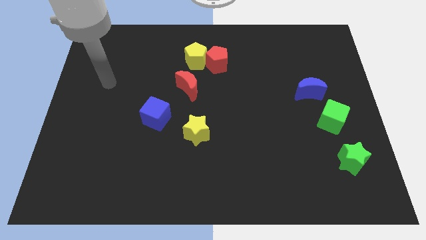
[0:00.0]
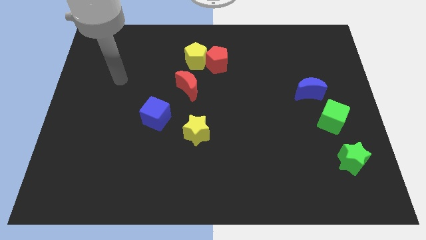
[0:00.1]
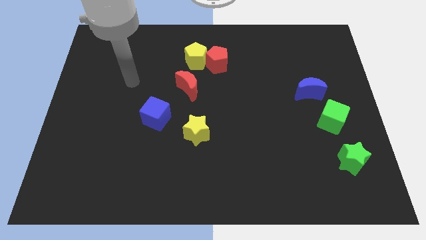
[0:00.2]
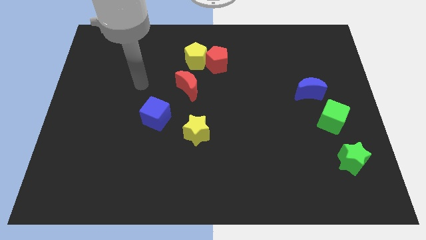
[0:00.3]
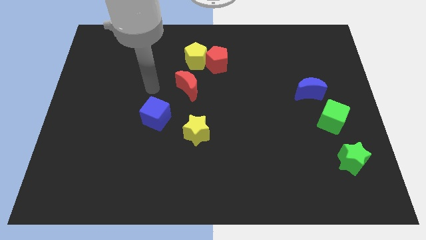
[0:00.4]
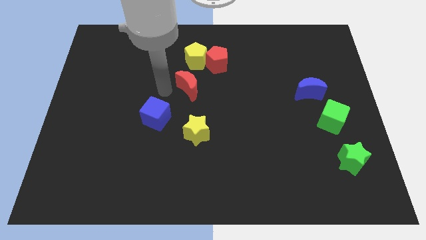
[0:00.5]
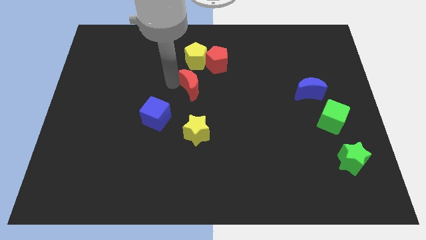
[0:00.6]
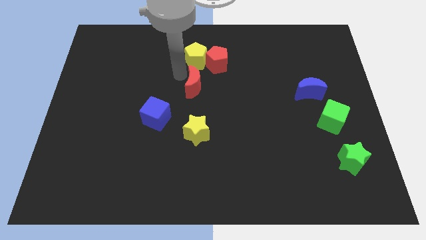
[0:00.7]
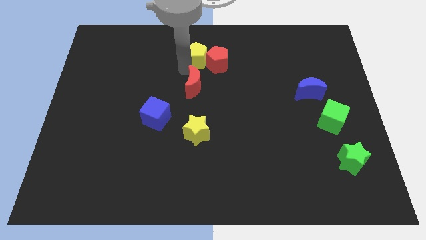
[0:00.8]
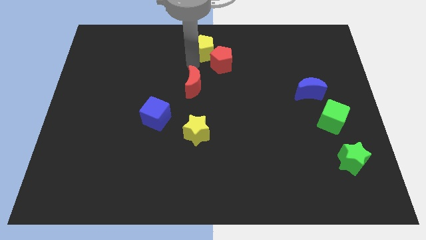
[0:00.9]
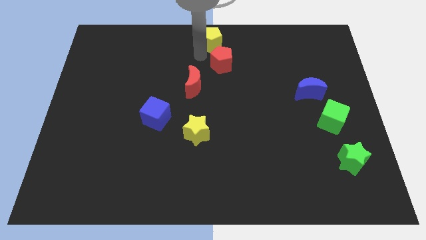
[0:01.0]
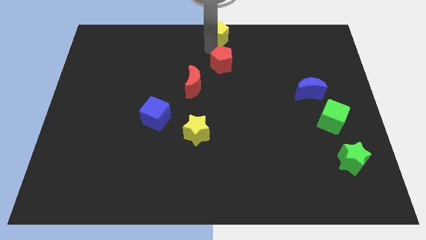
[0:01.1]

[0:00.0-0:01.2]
separate the red pentagon from the yellow pentagon

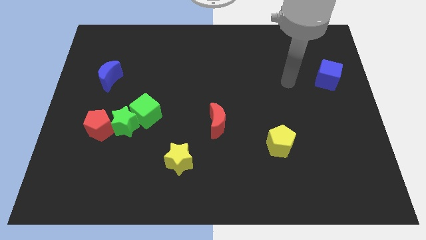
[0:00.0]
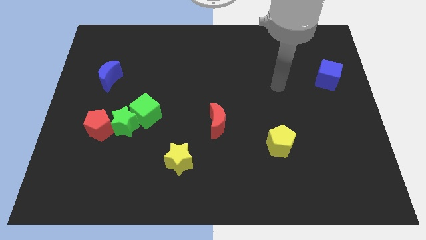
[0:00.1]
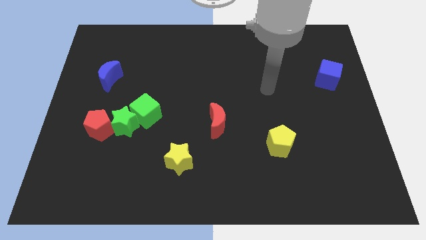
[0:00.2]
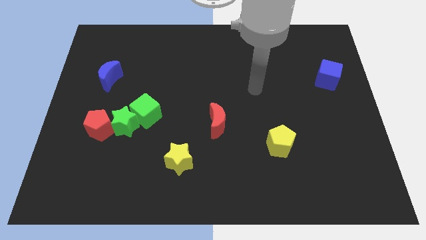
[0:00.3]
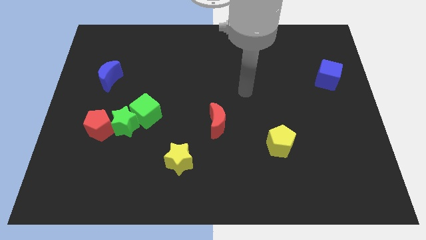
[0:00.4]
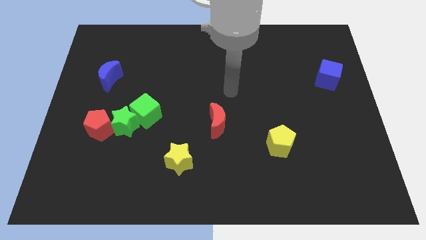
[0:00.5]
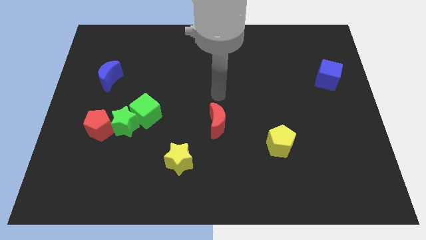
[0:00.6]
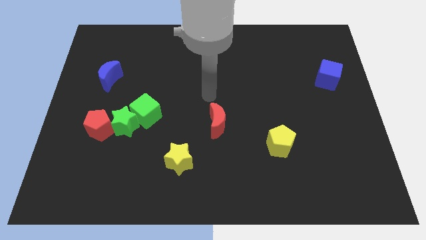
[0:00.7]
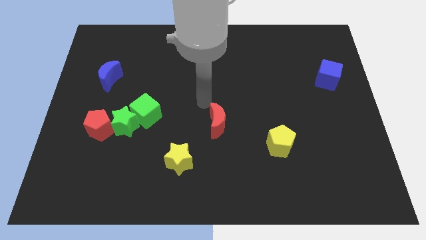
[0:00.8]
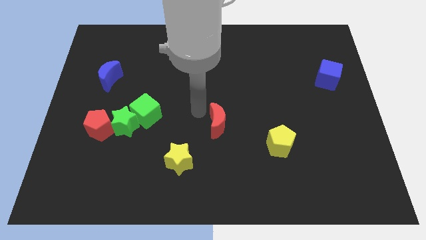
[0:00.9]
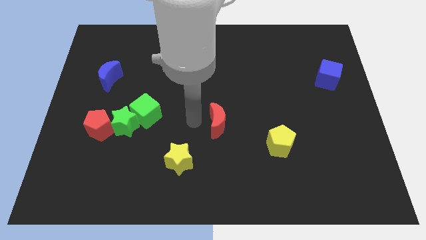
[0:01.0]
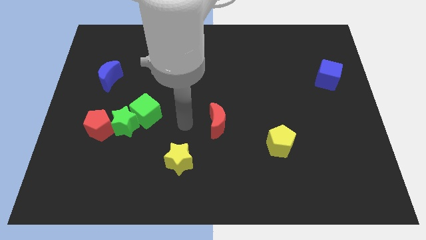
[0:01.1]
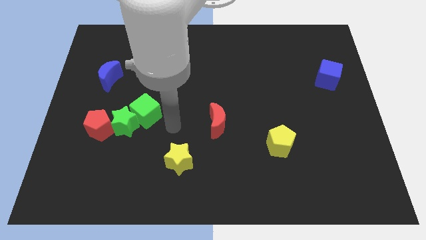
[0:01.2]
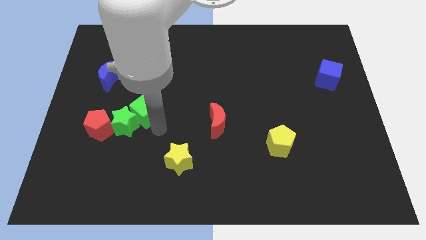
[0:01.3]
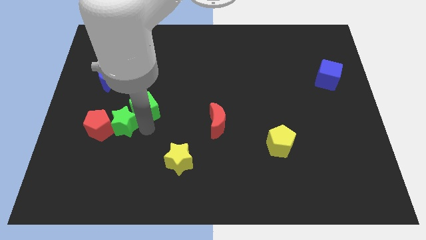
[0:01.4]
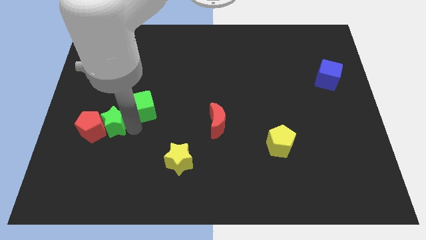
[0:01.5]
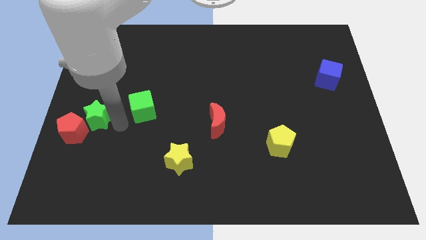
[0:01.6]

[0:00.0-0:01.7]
pull the green cube apart from the green star

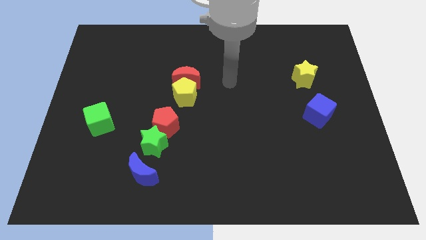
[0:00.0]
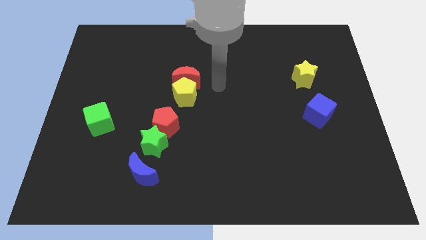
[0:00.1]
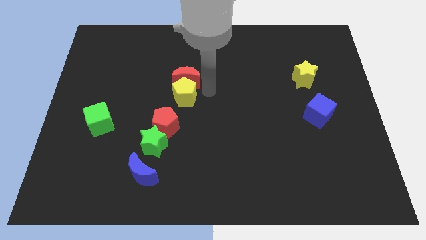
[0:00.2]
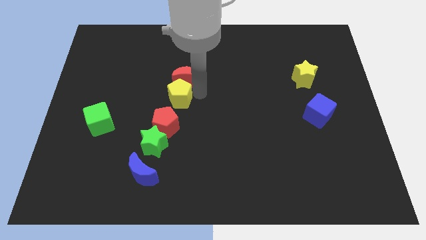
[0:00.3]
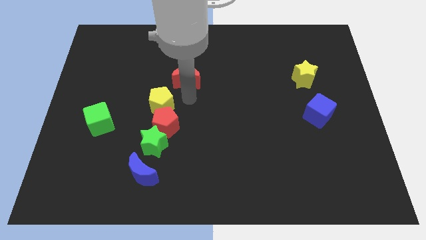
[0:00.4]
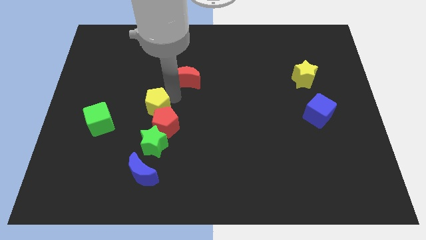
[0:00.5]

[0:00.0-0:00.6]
move the red moon away from the yellow pentagon

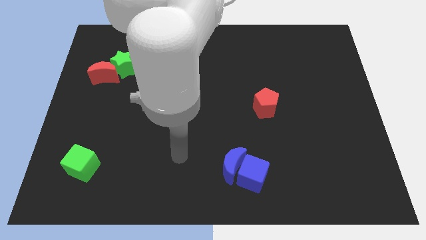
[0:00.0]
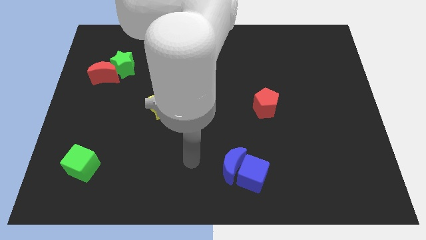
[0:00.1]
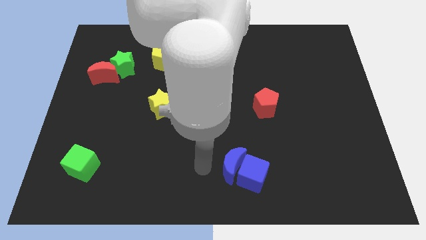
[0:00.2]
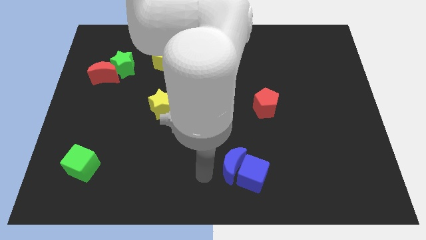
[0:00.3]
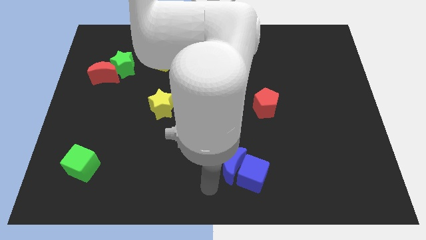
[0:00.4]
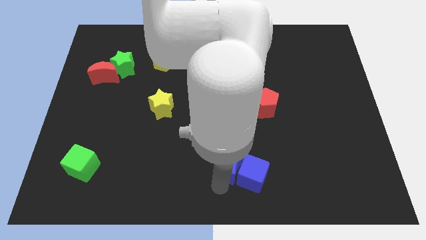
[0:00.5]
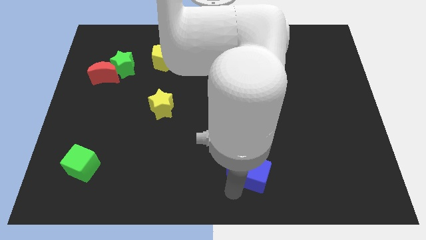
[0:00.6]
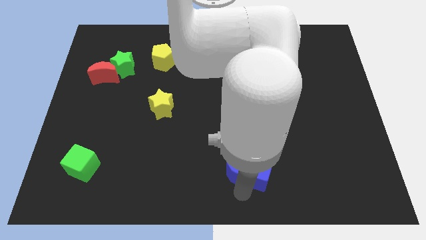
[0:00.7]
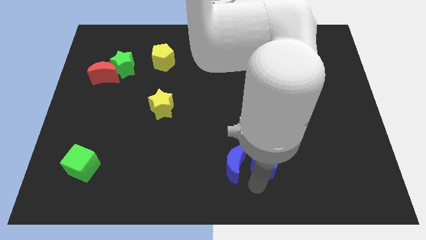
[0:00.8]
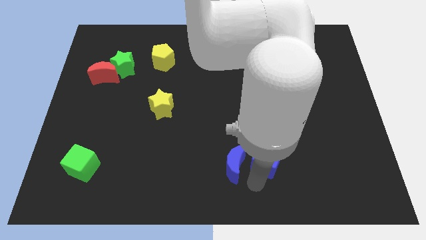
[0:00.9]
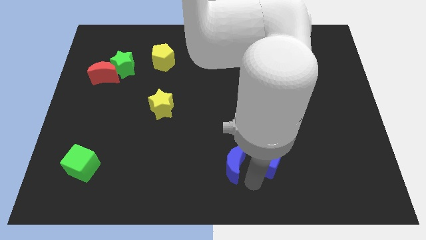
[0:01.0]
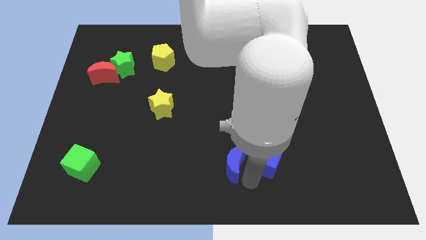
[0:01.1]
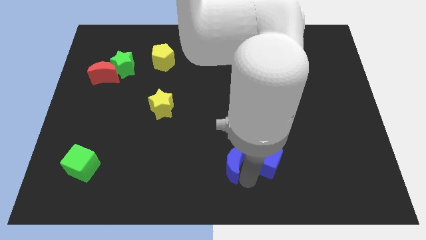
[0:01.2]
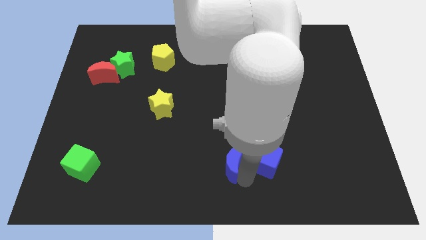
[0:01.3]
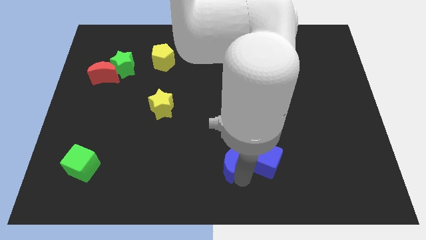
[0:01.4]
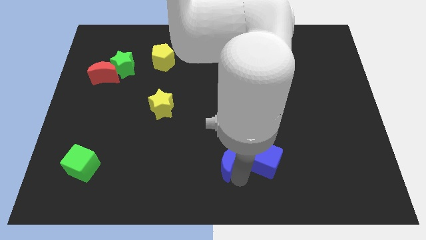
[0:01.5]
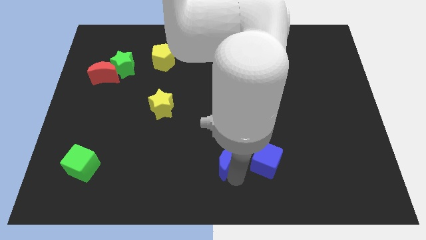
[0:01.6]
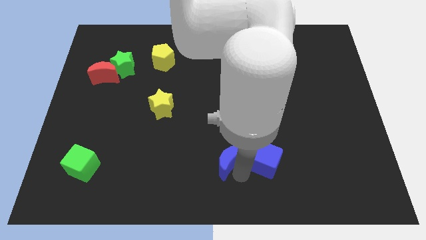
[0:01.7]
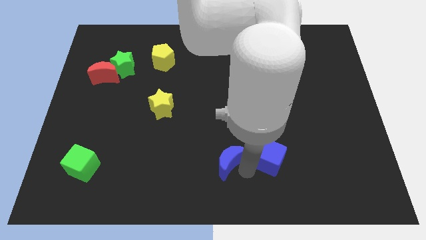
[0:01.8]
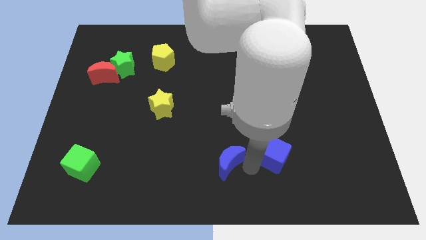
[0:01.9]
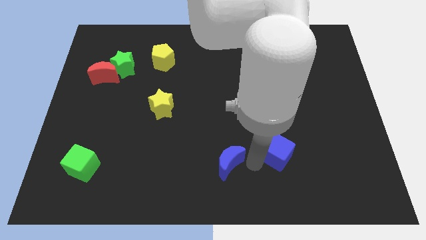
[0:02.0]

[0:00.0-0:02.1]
move the blue moon away from the blue cube

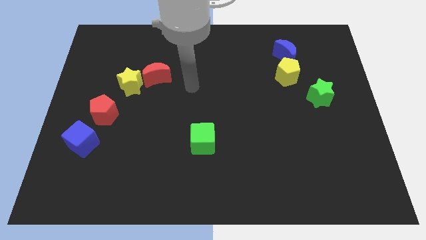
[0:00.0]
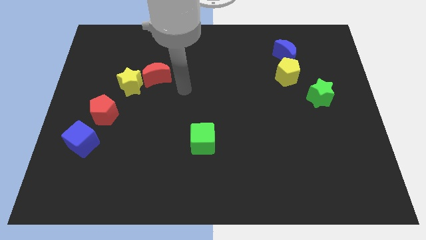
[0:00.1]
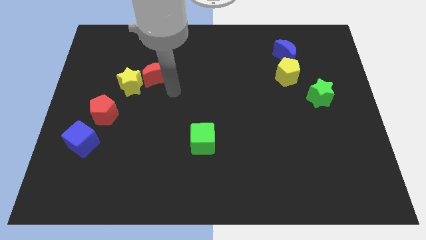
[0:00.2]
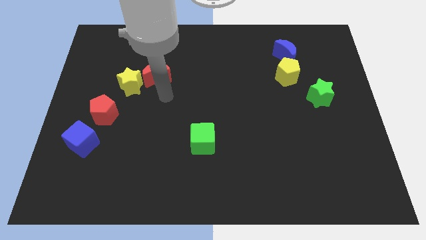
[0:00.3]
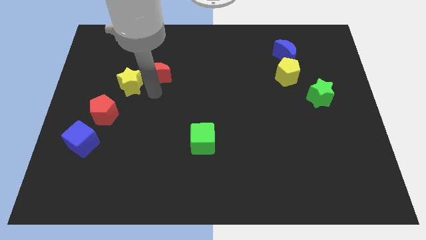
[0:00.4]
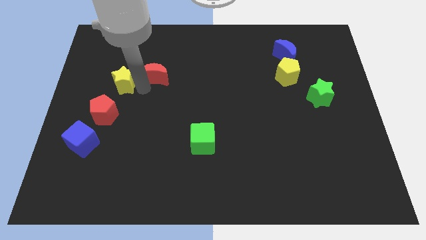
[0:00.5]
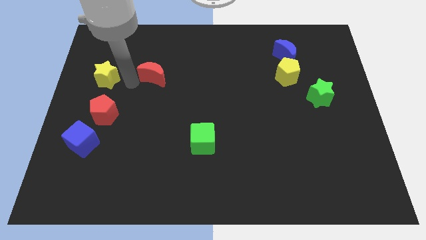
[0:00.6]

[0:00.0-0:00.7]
move the red moon away from the yellow star

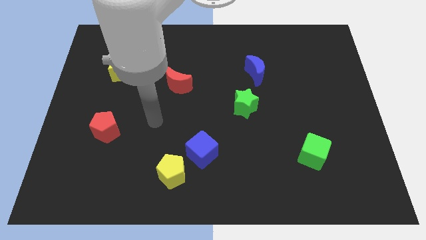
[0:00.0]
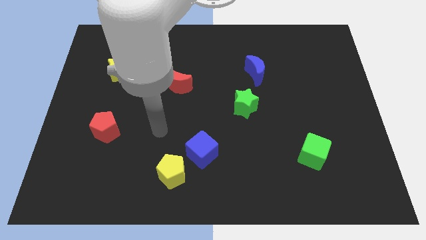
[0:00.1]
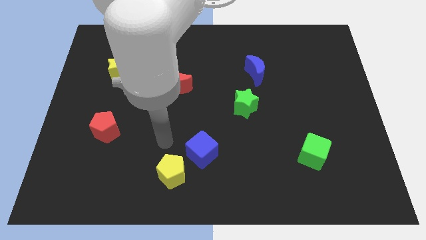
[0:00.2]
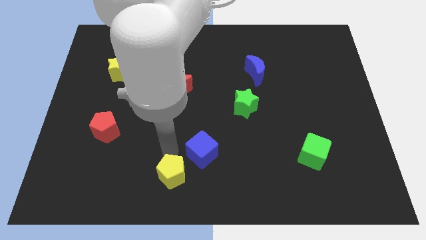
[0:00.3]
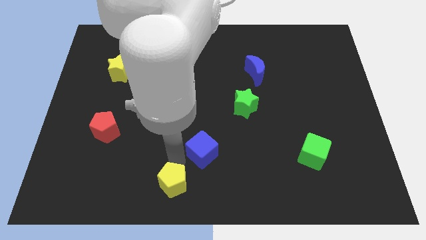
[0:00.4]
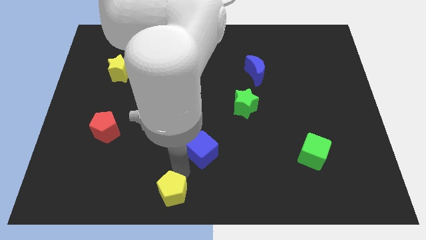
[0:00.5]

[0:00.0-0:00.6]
pull the blue cube apart from the yellow pentagon

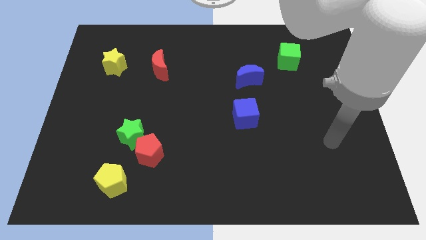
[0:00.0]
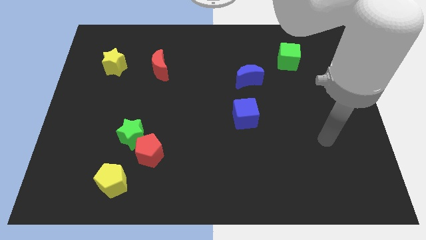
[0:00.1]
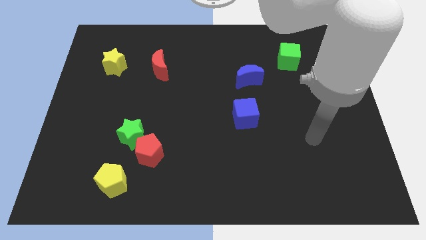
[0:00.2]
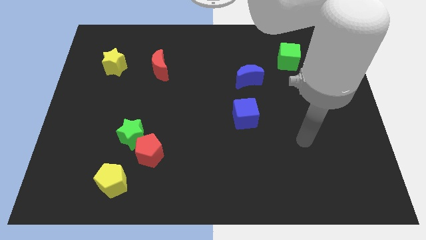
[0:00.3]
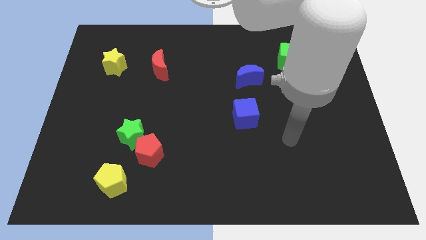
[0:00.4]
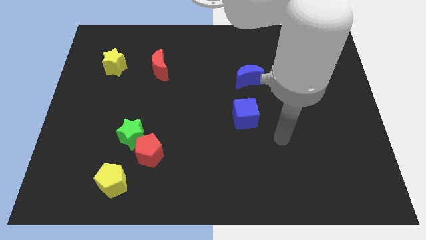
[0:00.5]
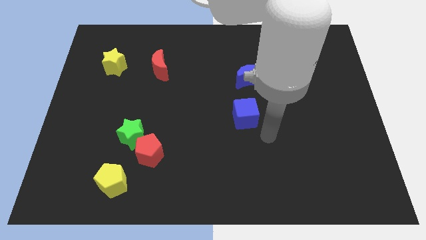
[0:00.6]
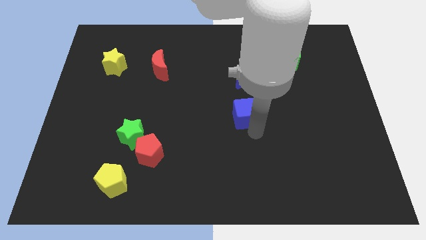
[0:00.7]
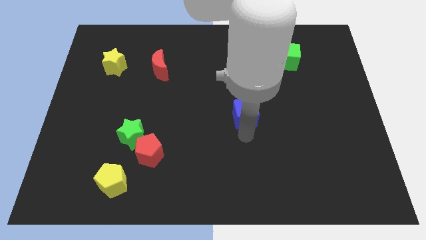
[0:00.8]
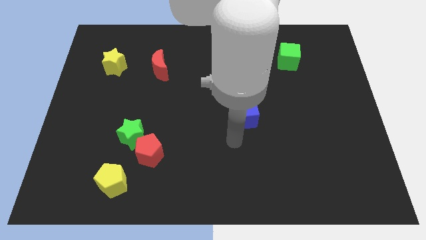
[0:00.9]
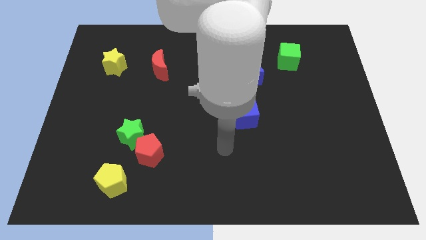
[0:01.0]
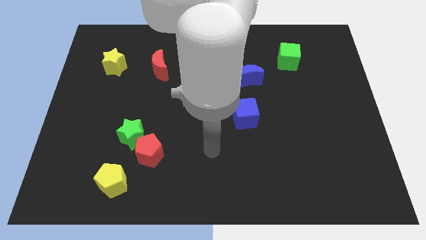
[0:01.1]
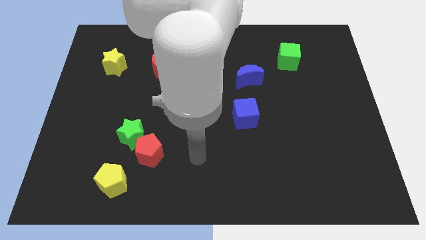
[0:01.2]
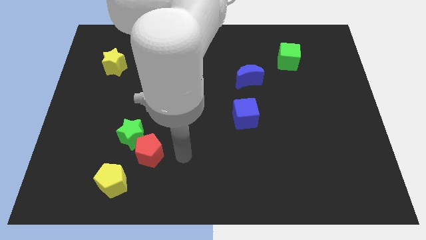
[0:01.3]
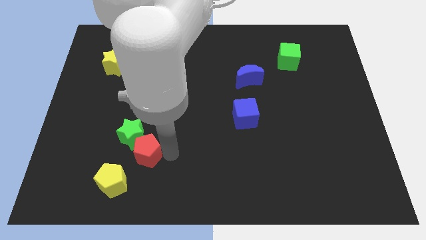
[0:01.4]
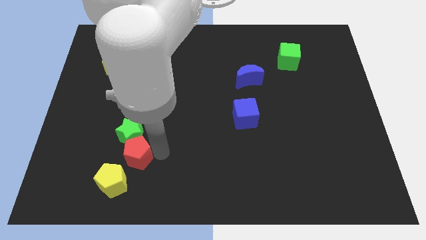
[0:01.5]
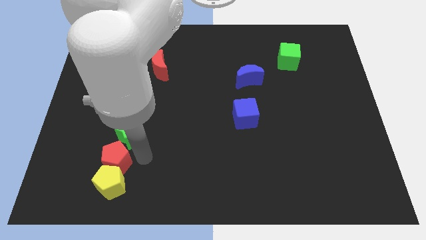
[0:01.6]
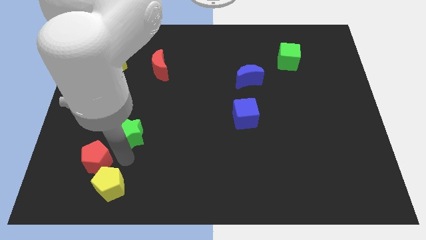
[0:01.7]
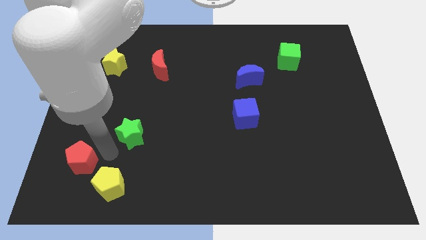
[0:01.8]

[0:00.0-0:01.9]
move the green star away from the red pentagon

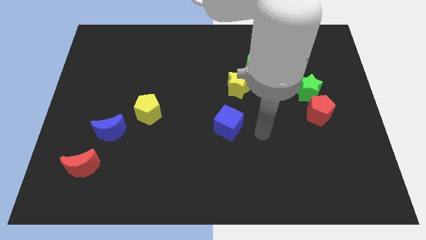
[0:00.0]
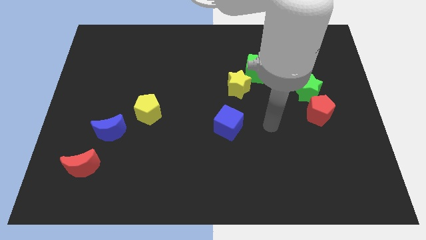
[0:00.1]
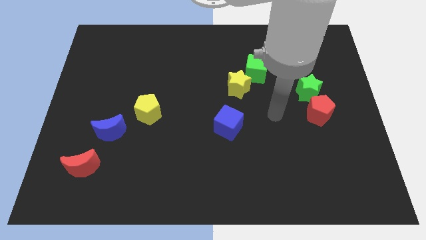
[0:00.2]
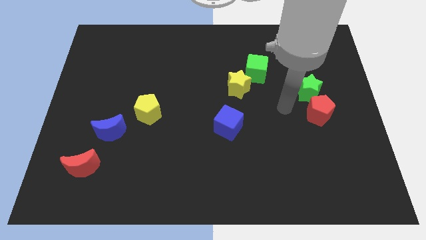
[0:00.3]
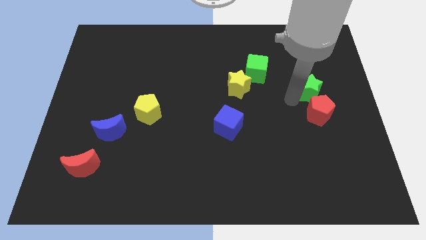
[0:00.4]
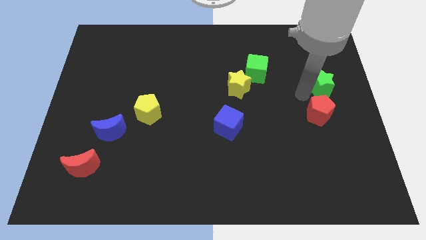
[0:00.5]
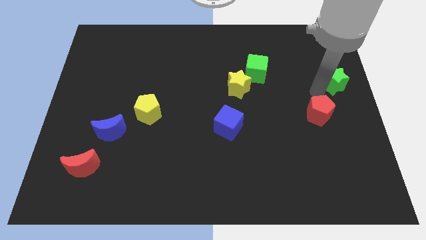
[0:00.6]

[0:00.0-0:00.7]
pull the red pentagon apart from the green star
